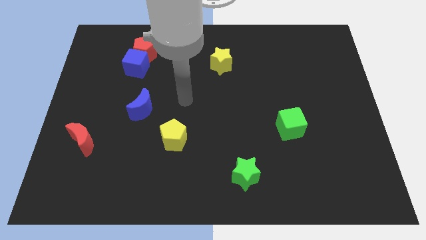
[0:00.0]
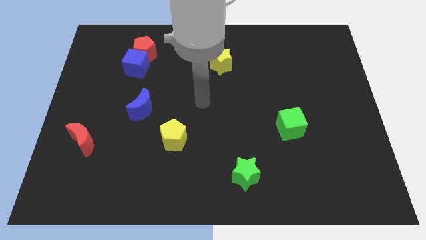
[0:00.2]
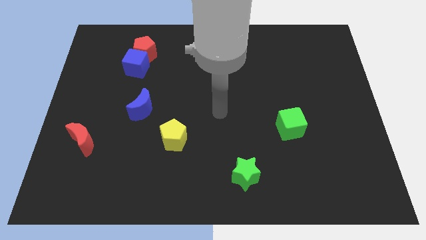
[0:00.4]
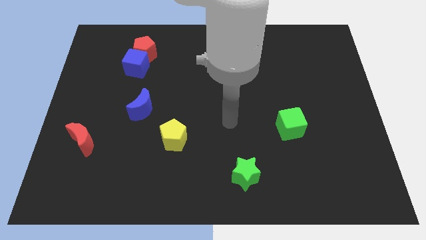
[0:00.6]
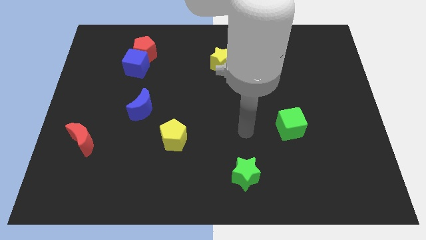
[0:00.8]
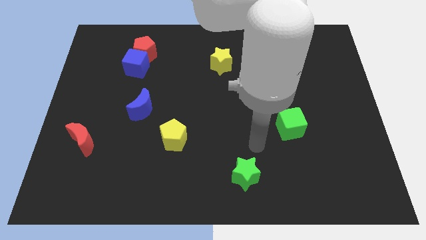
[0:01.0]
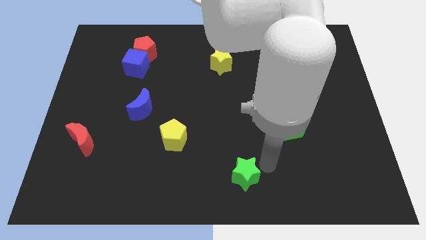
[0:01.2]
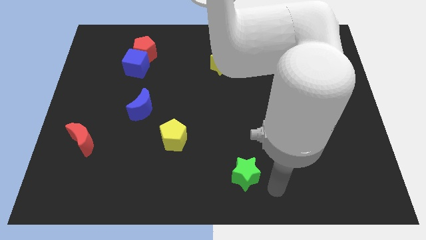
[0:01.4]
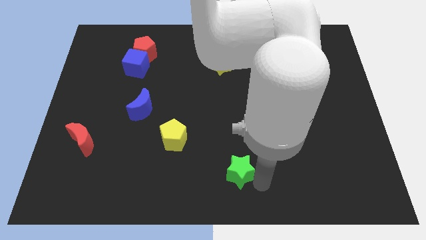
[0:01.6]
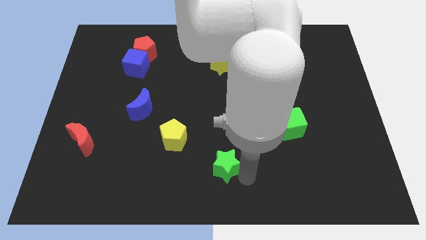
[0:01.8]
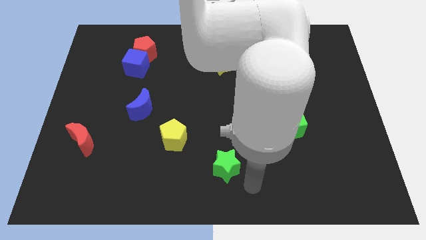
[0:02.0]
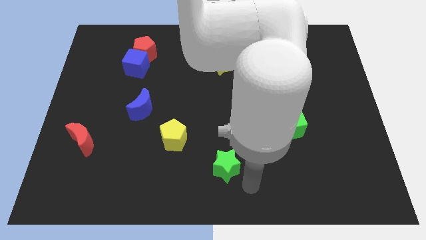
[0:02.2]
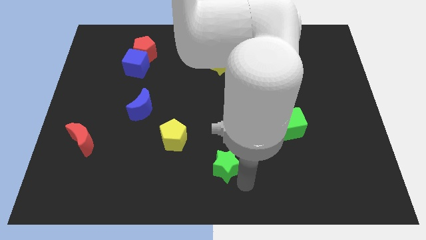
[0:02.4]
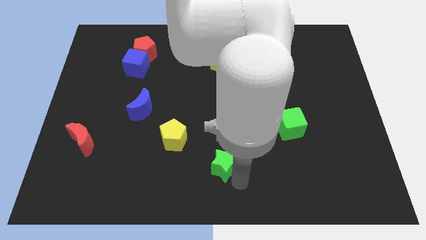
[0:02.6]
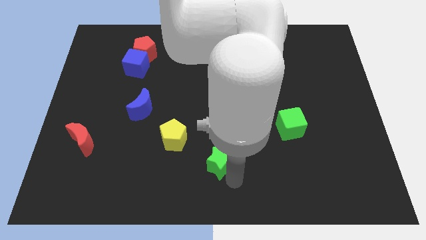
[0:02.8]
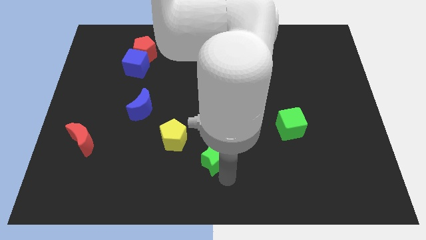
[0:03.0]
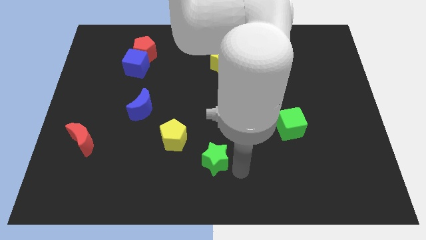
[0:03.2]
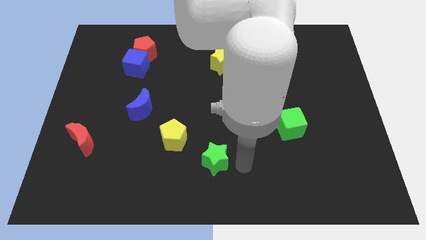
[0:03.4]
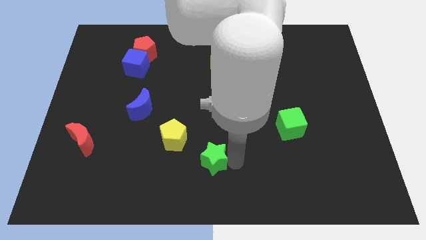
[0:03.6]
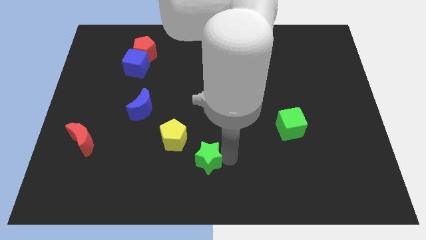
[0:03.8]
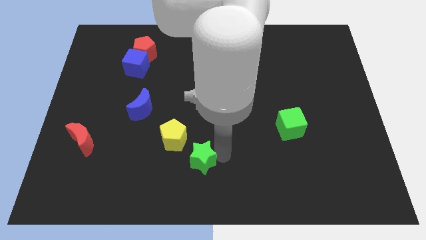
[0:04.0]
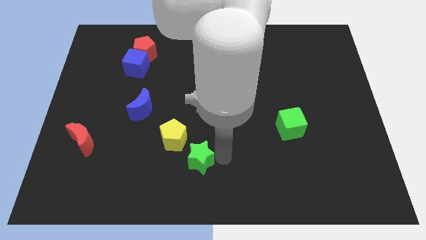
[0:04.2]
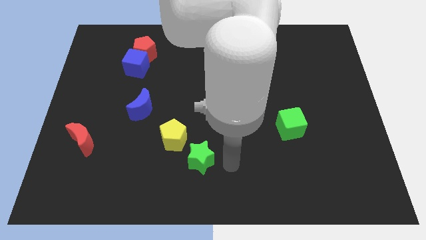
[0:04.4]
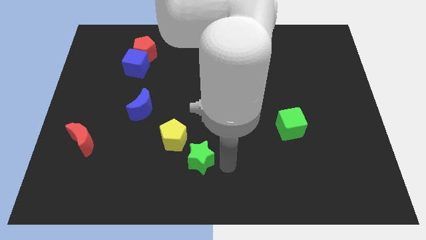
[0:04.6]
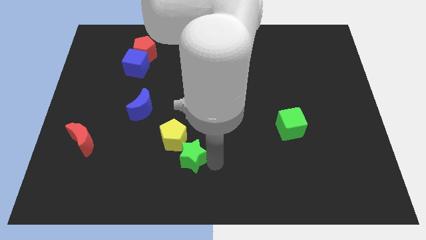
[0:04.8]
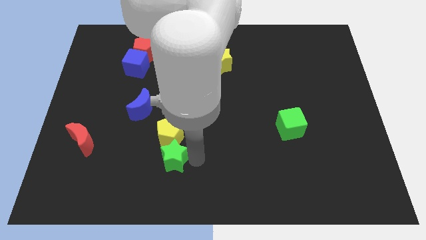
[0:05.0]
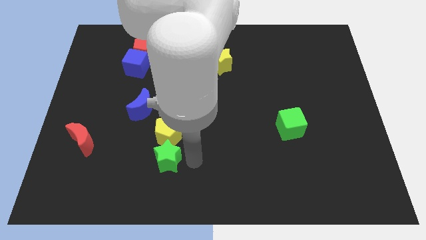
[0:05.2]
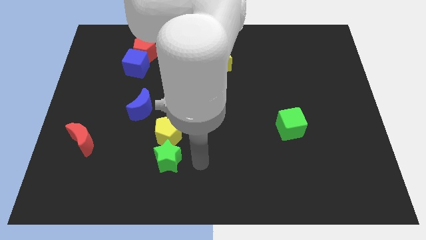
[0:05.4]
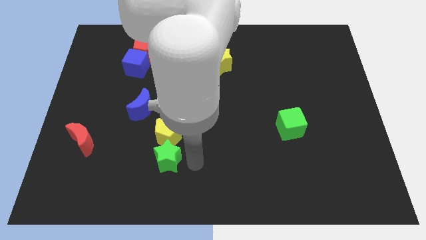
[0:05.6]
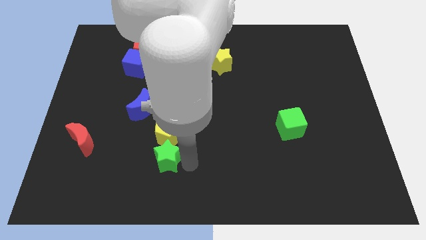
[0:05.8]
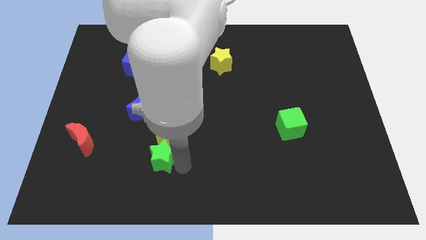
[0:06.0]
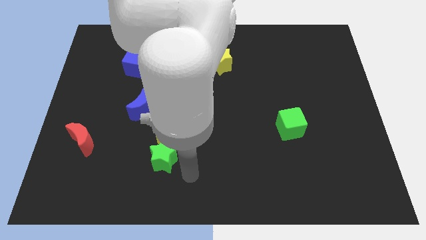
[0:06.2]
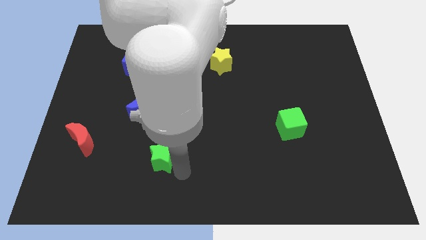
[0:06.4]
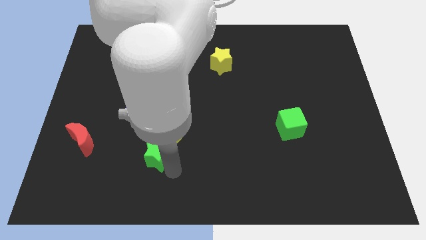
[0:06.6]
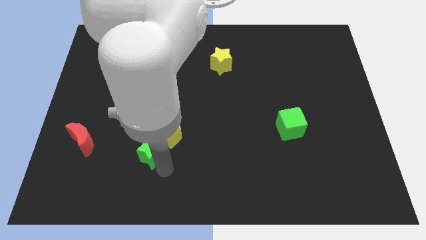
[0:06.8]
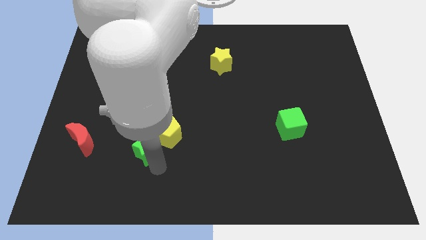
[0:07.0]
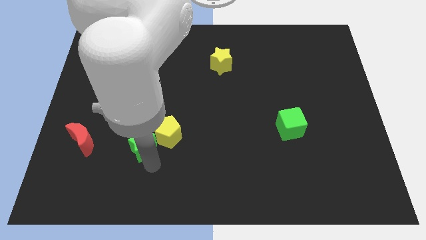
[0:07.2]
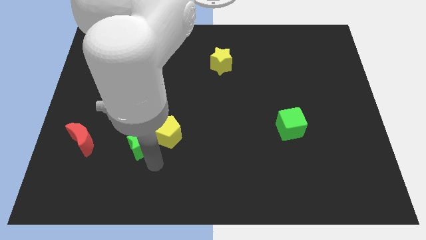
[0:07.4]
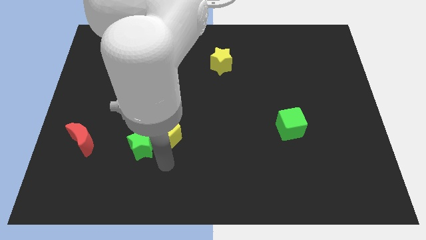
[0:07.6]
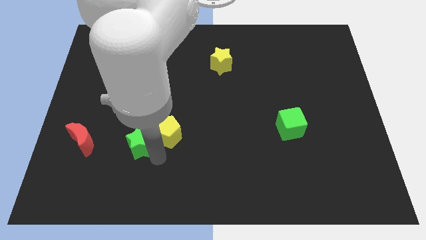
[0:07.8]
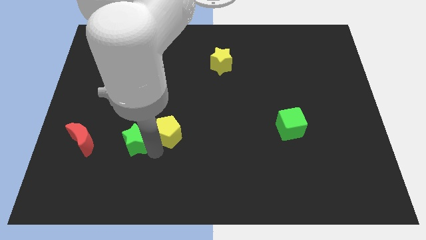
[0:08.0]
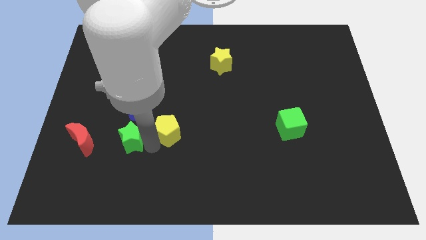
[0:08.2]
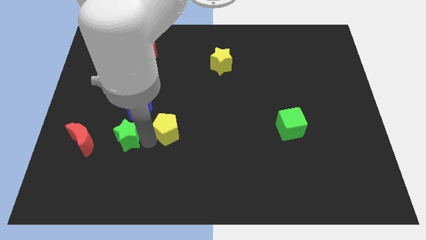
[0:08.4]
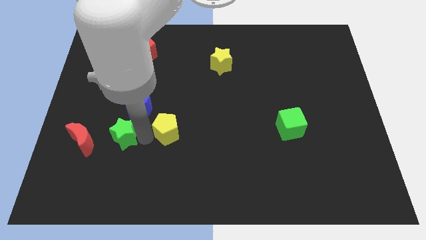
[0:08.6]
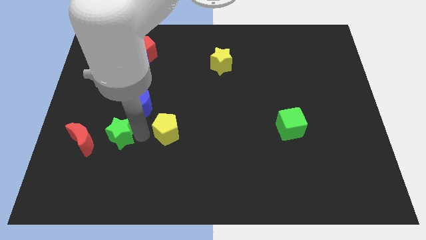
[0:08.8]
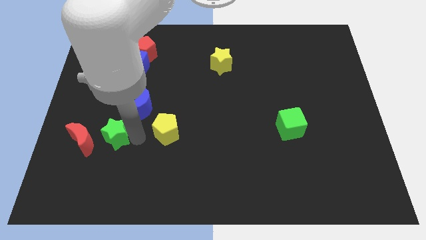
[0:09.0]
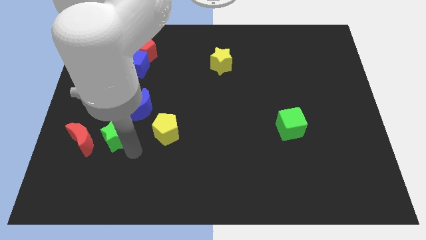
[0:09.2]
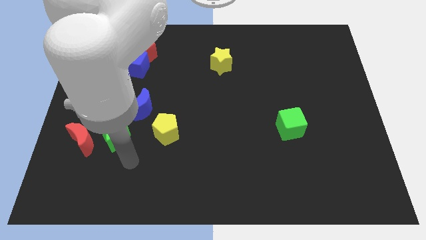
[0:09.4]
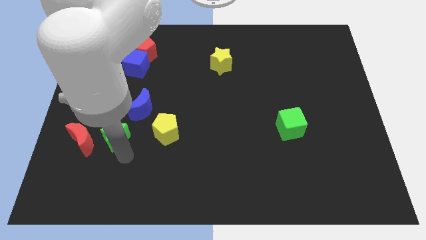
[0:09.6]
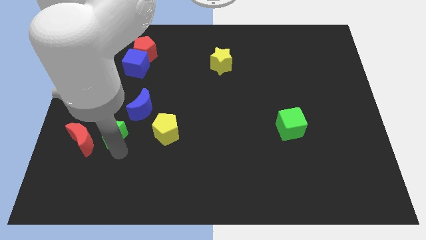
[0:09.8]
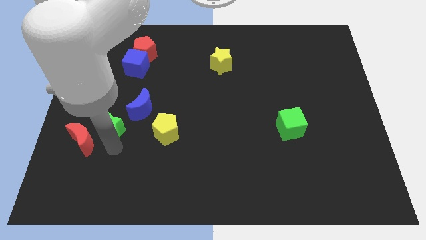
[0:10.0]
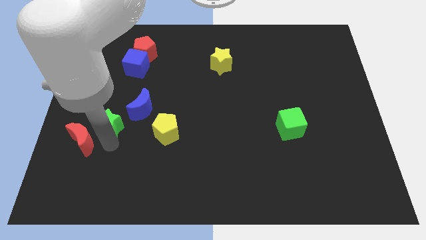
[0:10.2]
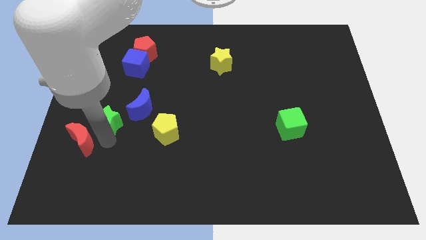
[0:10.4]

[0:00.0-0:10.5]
push the green star to the top of the red moon

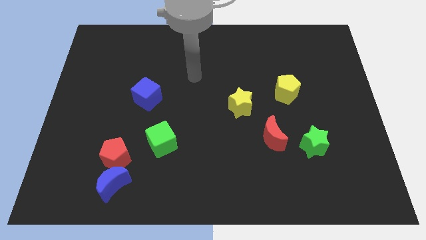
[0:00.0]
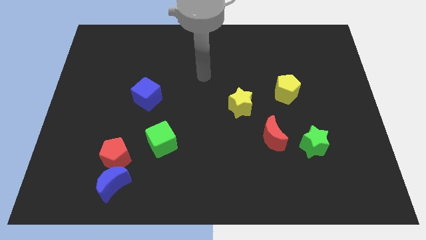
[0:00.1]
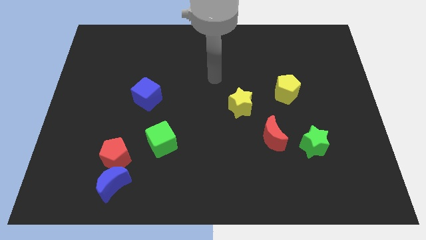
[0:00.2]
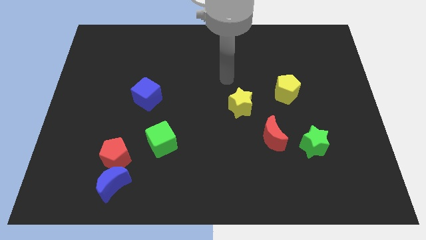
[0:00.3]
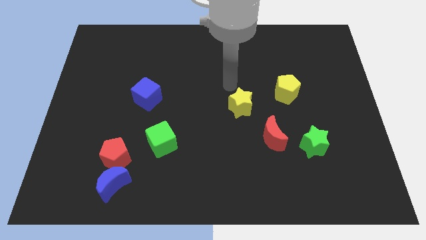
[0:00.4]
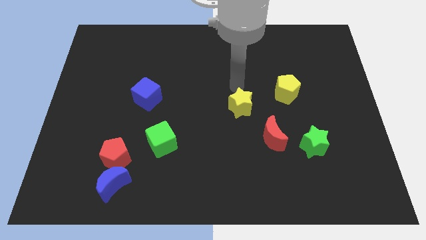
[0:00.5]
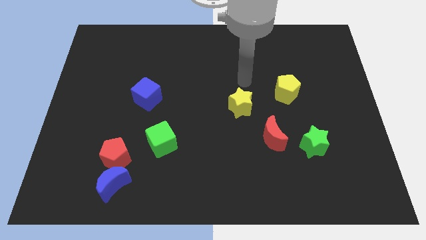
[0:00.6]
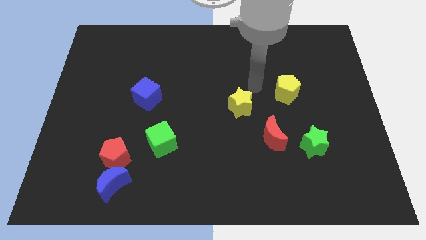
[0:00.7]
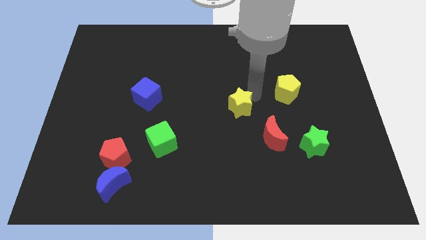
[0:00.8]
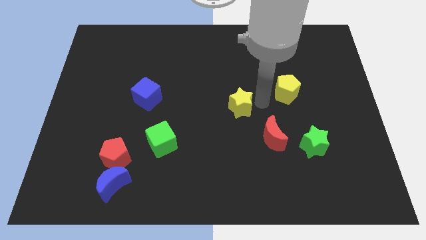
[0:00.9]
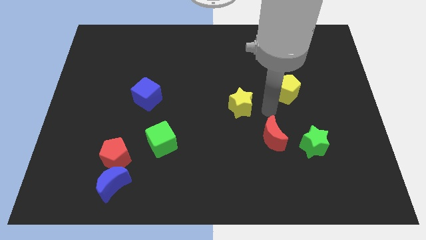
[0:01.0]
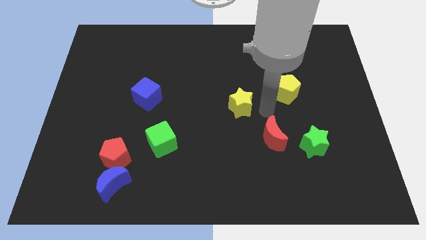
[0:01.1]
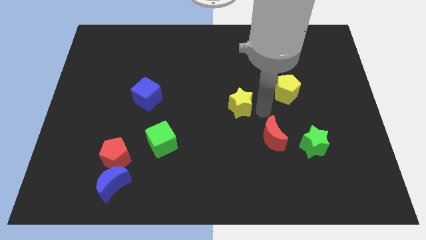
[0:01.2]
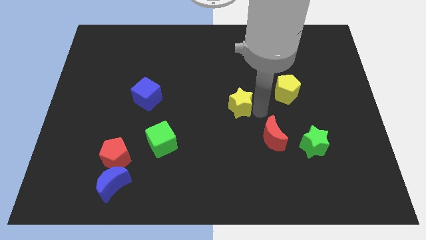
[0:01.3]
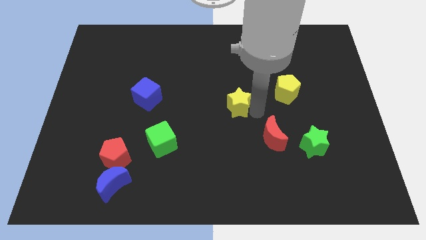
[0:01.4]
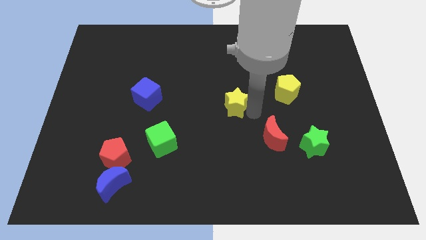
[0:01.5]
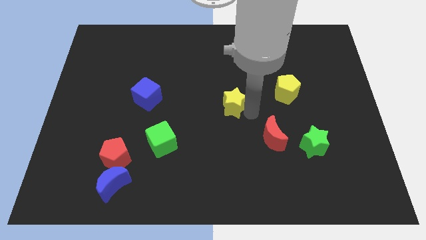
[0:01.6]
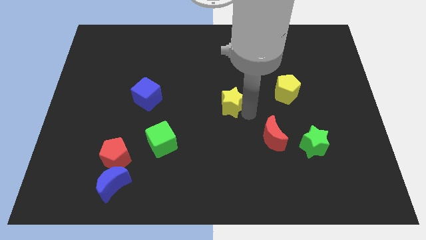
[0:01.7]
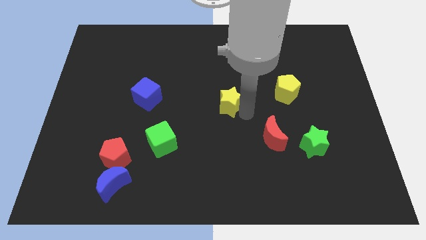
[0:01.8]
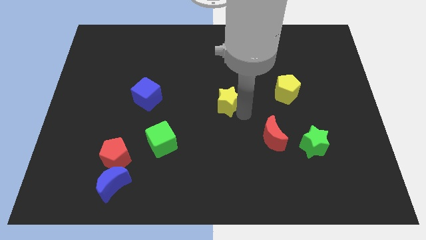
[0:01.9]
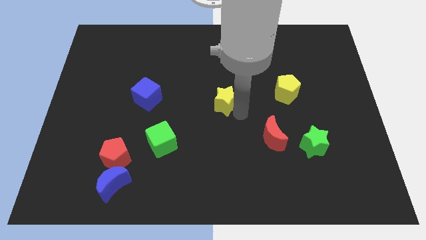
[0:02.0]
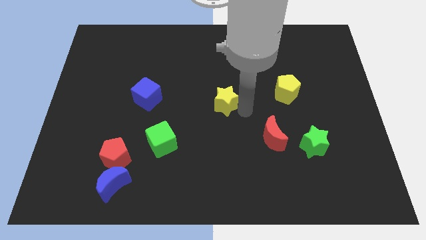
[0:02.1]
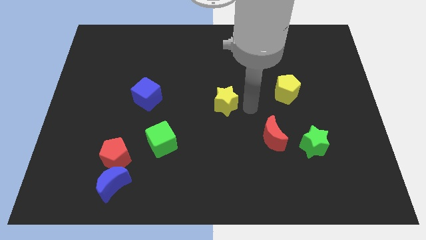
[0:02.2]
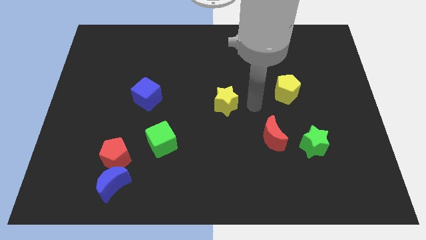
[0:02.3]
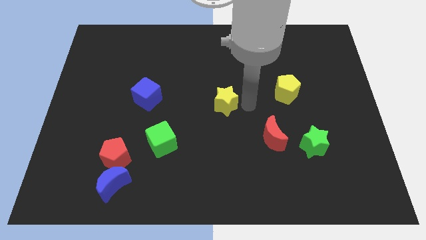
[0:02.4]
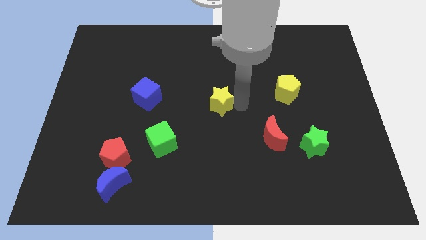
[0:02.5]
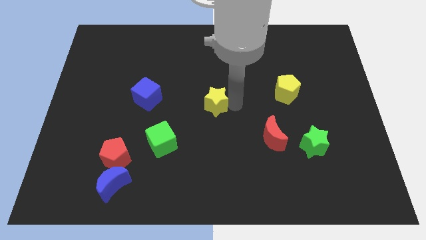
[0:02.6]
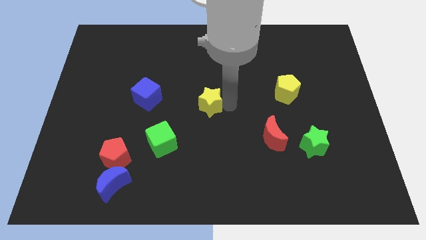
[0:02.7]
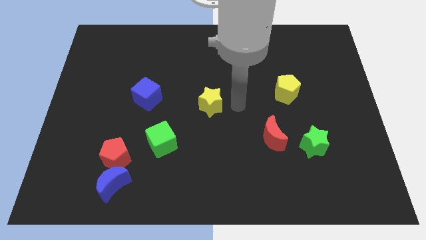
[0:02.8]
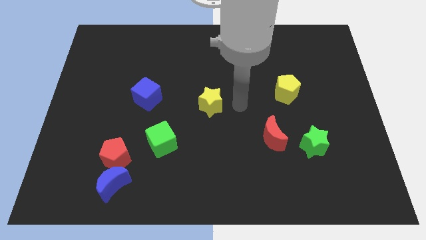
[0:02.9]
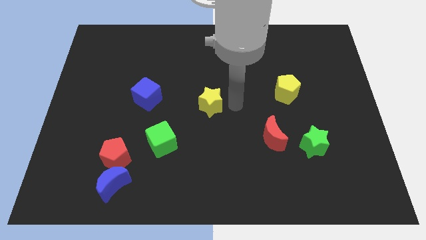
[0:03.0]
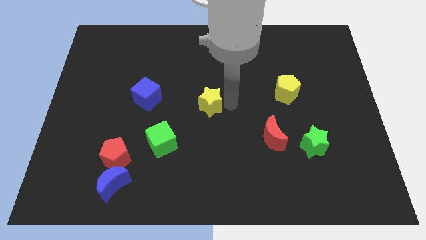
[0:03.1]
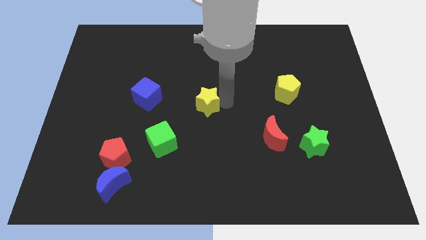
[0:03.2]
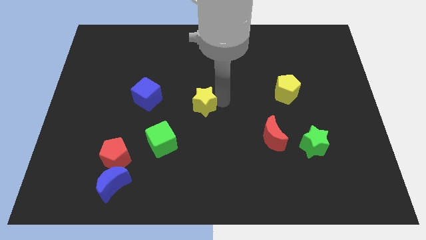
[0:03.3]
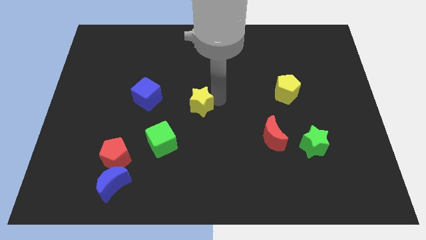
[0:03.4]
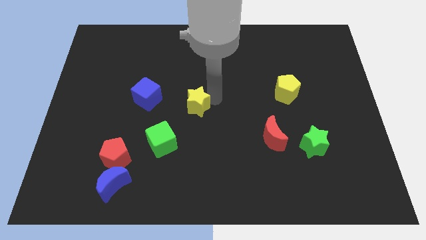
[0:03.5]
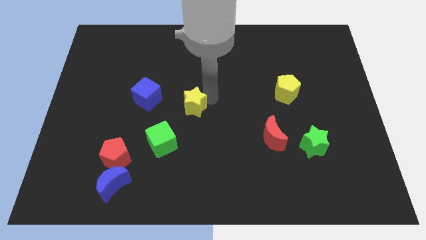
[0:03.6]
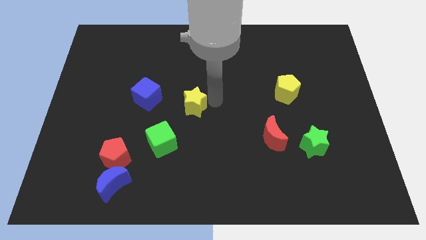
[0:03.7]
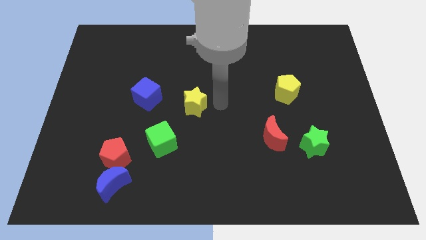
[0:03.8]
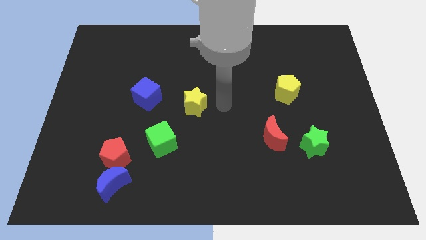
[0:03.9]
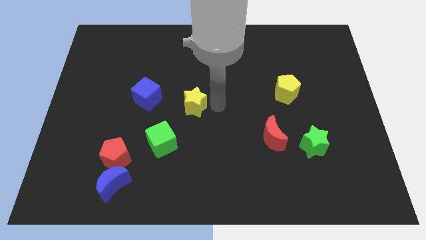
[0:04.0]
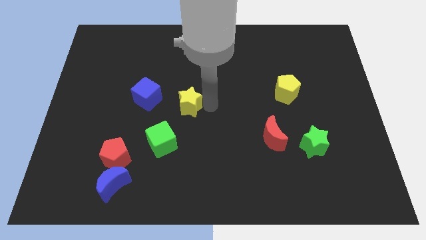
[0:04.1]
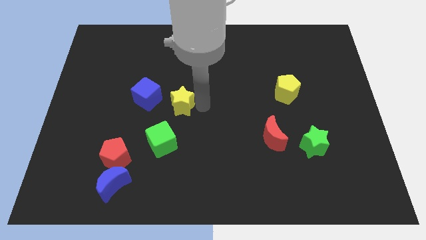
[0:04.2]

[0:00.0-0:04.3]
slide the yellow star above the green cube
